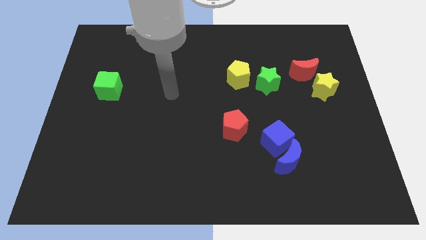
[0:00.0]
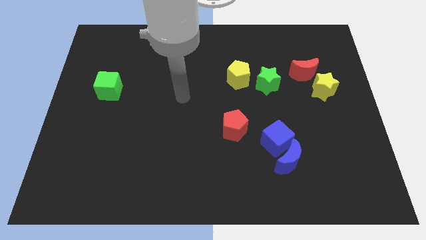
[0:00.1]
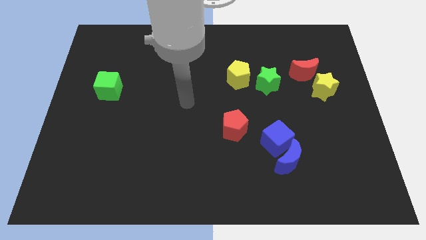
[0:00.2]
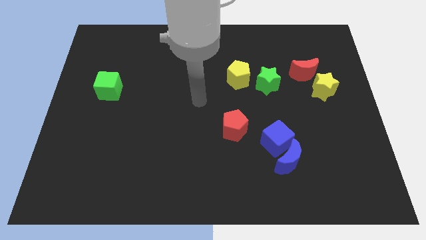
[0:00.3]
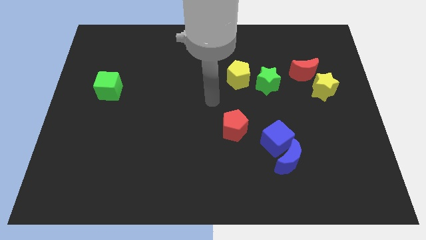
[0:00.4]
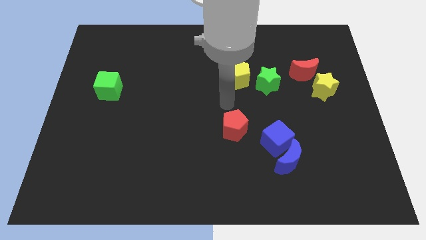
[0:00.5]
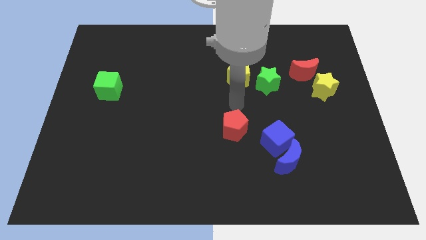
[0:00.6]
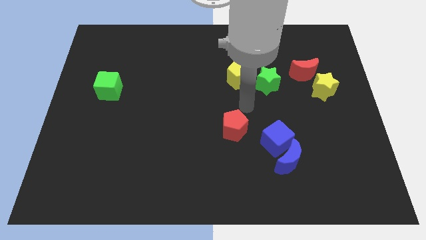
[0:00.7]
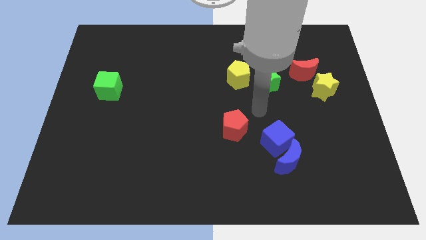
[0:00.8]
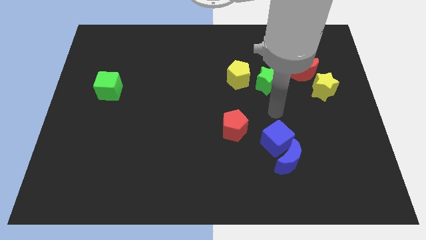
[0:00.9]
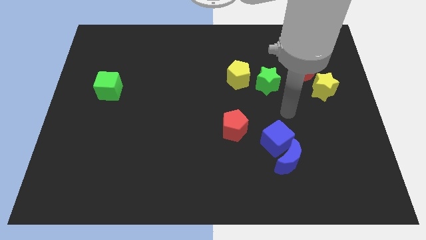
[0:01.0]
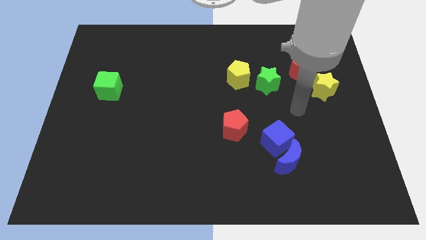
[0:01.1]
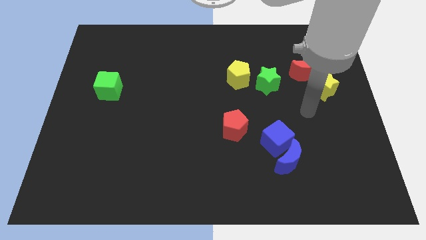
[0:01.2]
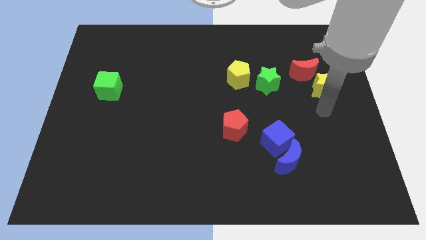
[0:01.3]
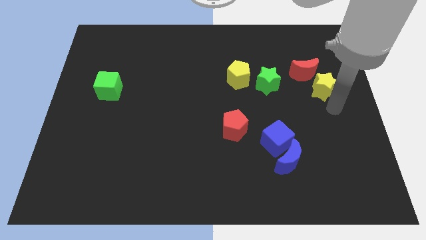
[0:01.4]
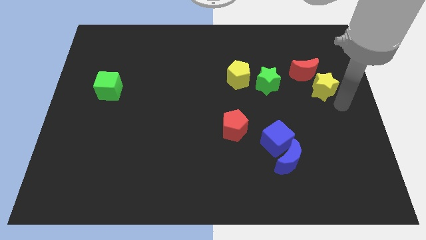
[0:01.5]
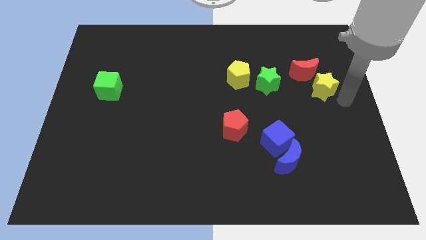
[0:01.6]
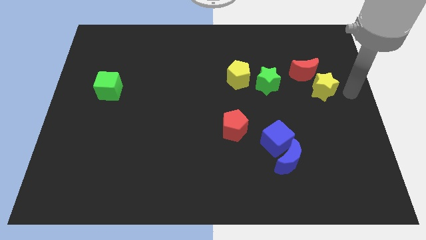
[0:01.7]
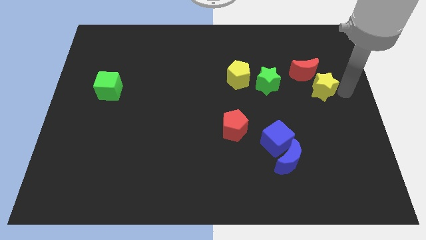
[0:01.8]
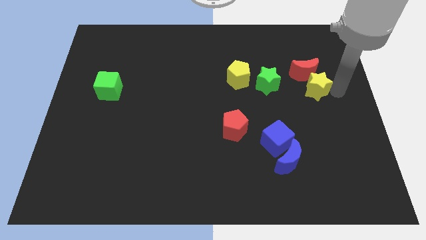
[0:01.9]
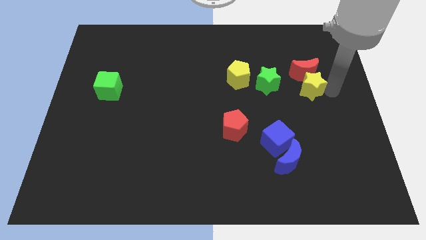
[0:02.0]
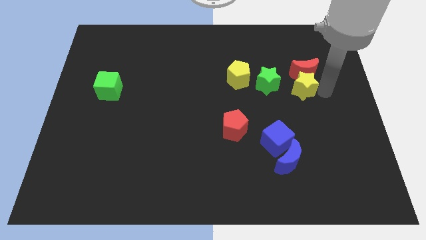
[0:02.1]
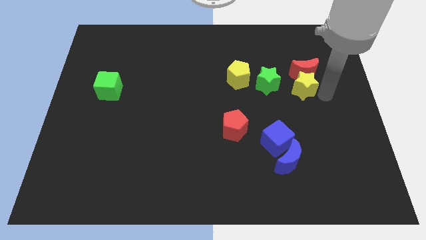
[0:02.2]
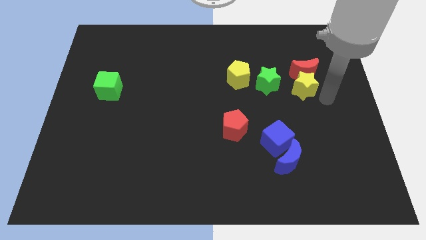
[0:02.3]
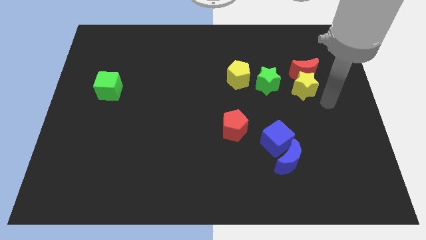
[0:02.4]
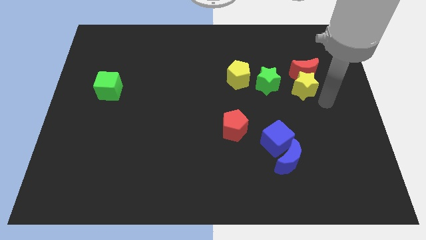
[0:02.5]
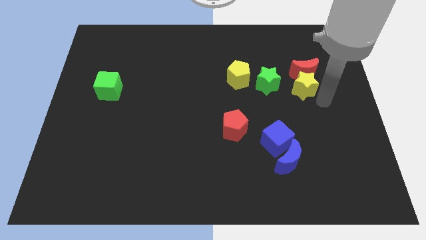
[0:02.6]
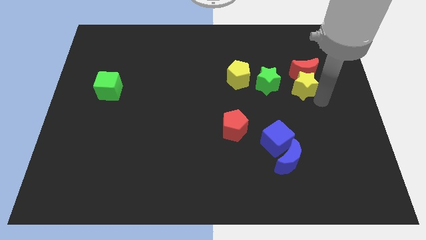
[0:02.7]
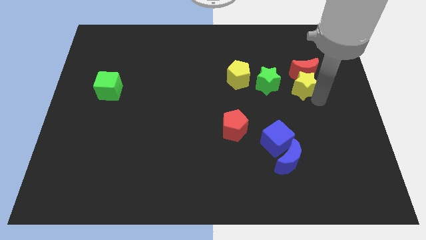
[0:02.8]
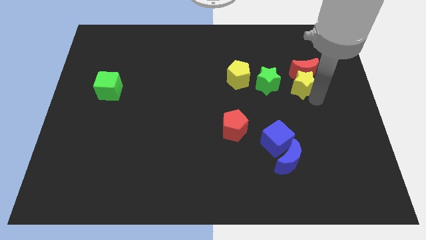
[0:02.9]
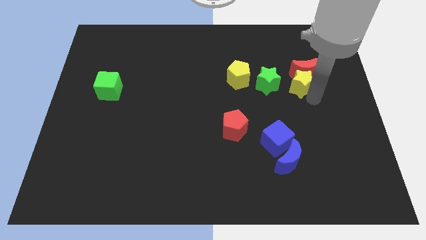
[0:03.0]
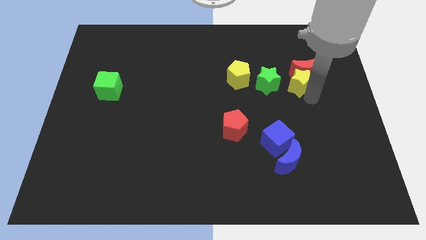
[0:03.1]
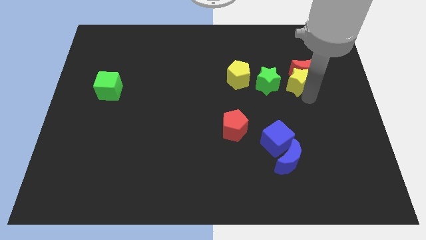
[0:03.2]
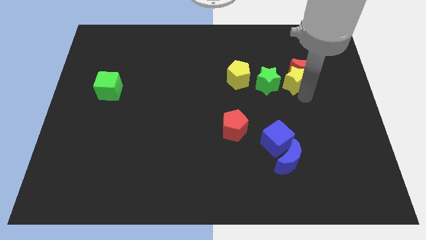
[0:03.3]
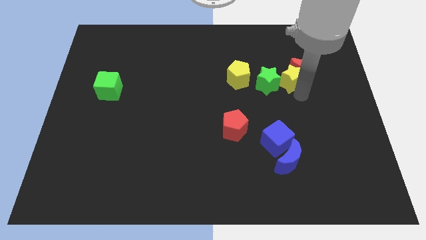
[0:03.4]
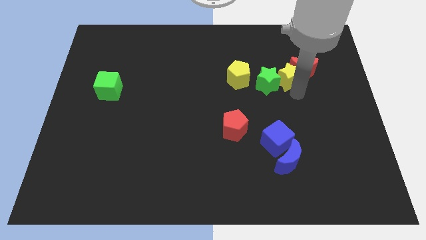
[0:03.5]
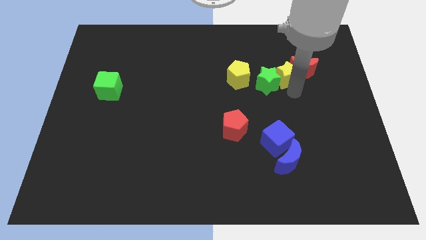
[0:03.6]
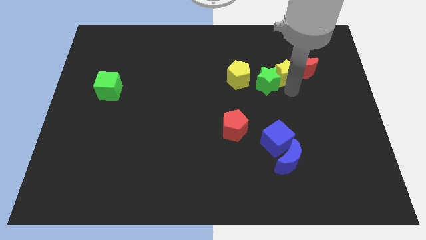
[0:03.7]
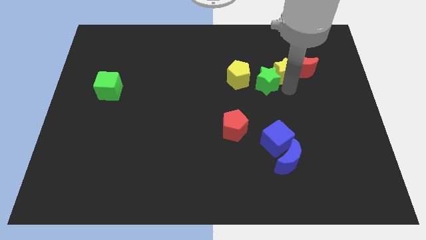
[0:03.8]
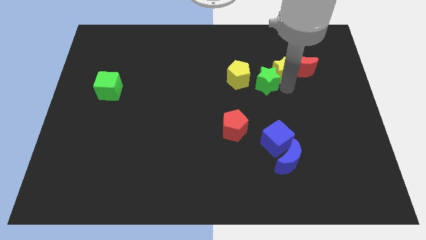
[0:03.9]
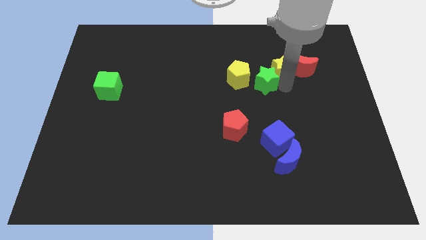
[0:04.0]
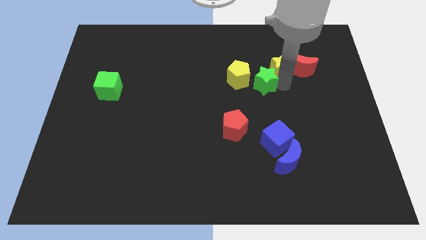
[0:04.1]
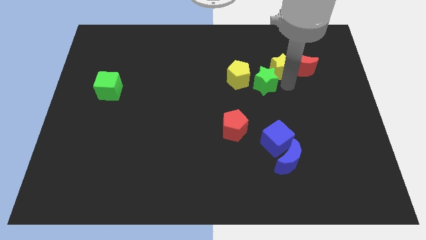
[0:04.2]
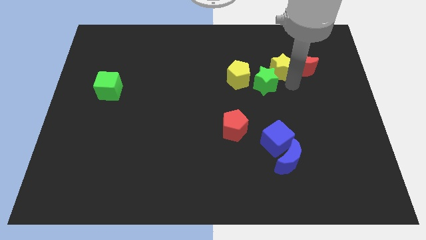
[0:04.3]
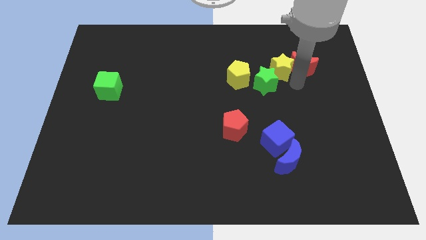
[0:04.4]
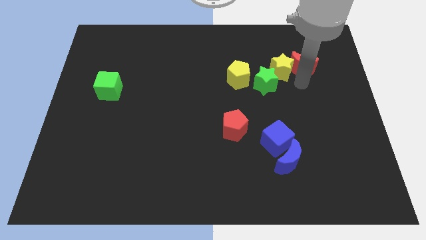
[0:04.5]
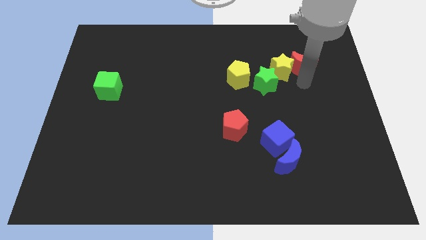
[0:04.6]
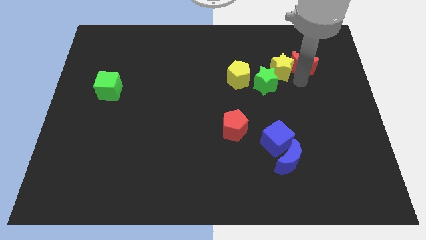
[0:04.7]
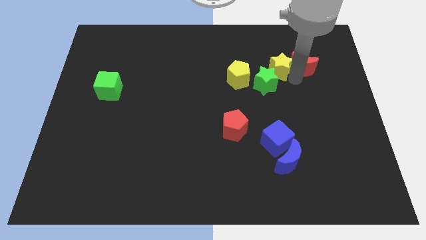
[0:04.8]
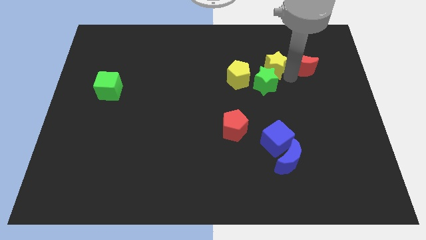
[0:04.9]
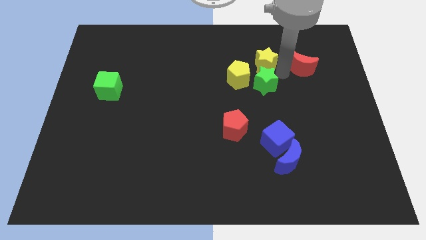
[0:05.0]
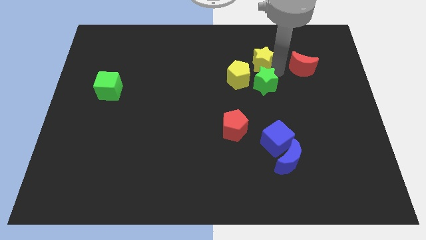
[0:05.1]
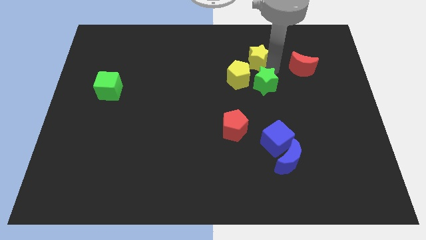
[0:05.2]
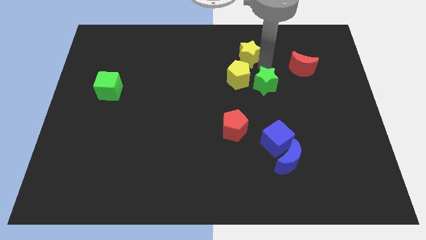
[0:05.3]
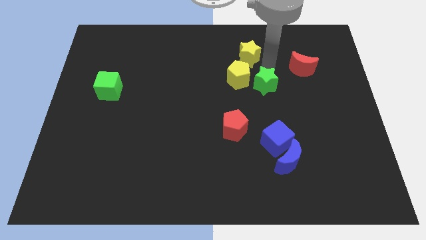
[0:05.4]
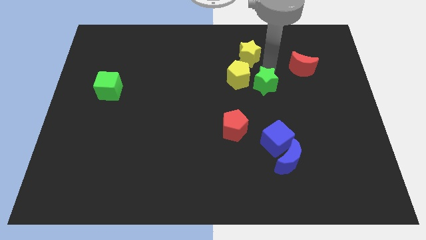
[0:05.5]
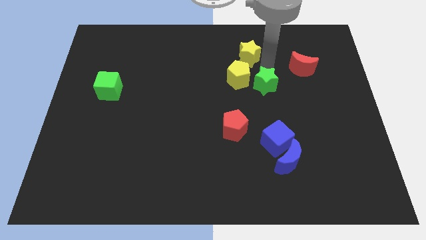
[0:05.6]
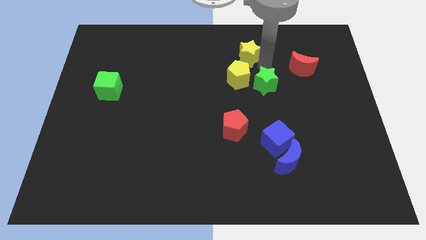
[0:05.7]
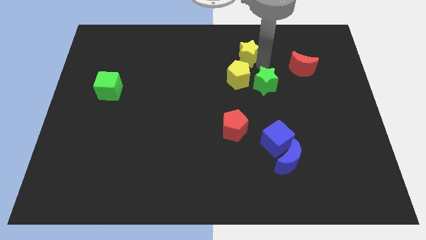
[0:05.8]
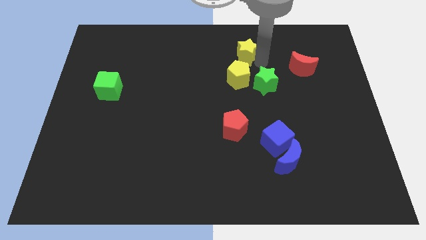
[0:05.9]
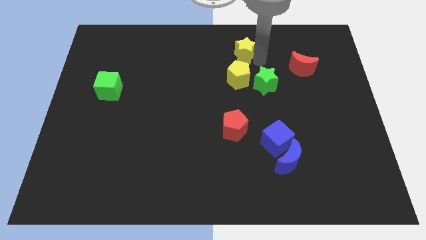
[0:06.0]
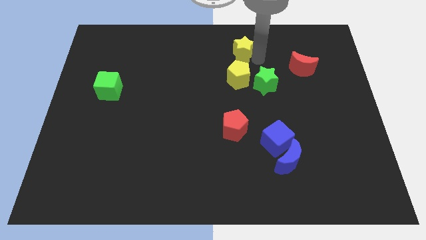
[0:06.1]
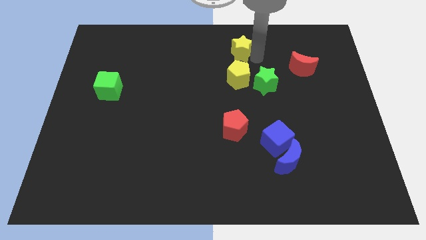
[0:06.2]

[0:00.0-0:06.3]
move the yellow star to the top

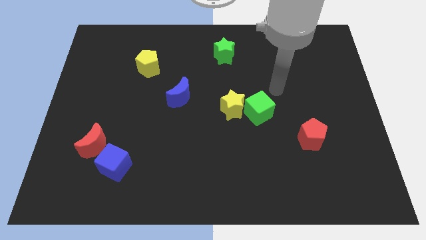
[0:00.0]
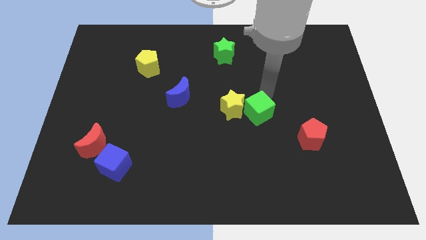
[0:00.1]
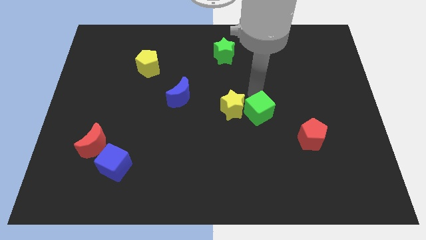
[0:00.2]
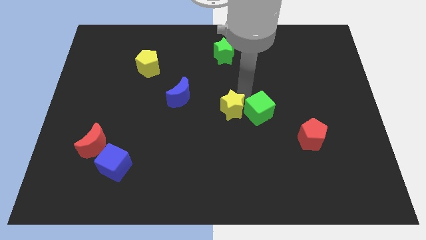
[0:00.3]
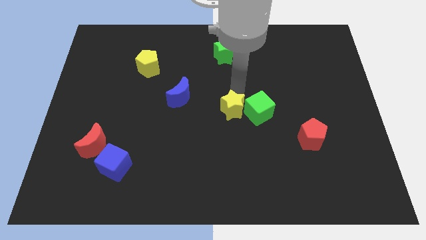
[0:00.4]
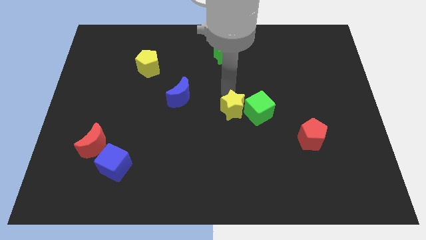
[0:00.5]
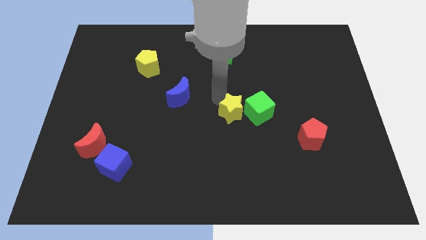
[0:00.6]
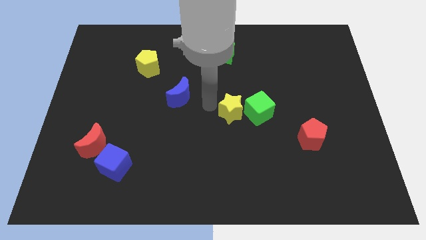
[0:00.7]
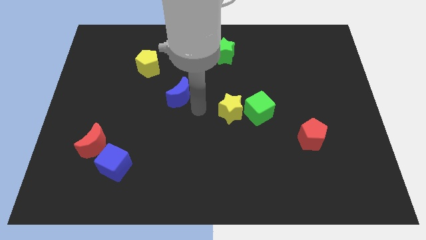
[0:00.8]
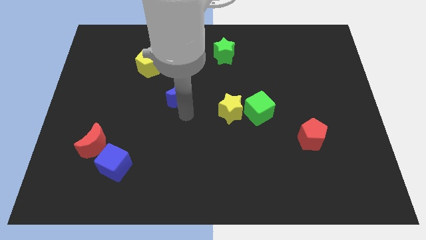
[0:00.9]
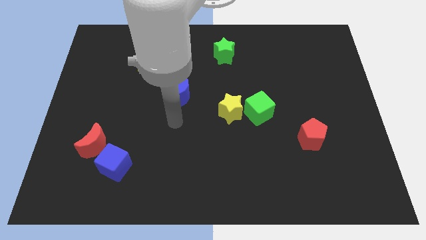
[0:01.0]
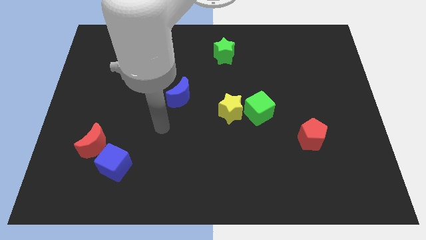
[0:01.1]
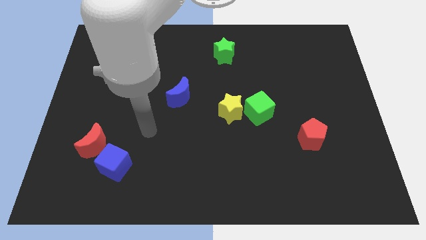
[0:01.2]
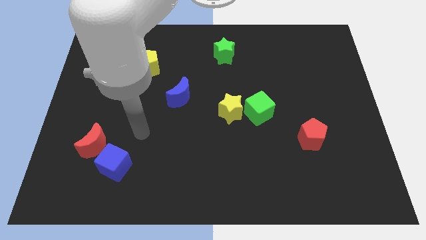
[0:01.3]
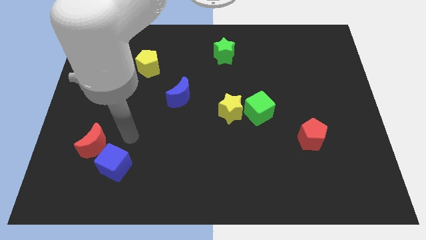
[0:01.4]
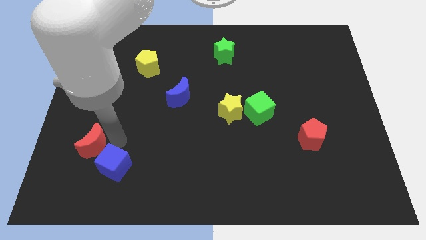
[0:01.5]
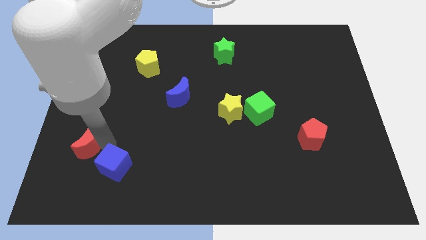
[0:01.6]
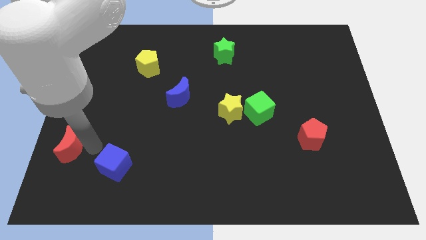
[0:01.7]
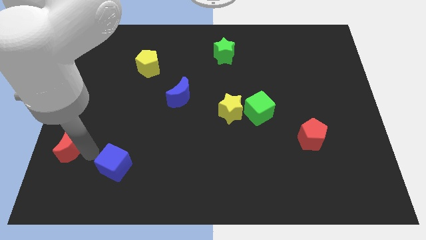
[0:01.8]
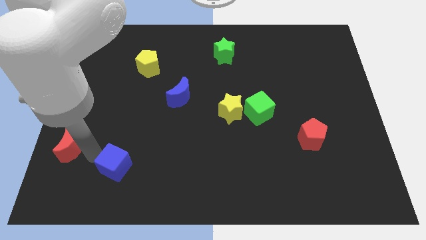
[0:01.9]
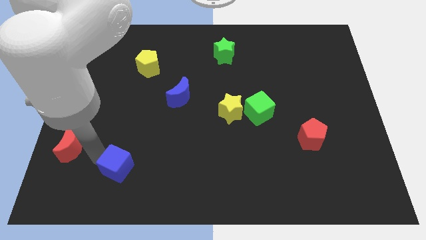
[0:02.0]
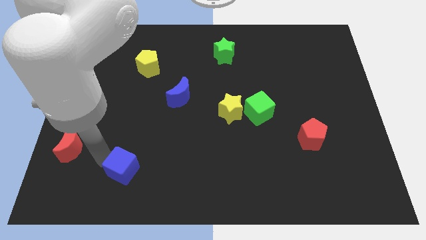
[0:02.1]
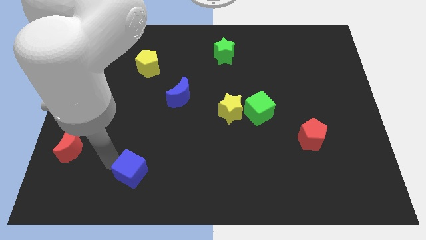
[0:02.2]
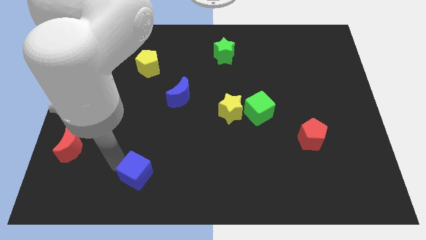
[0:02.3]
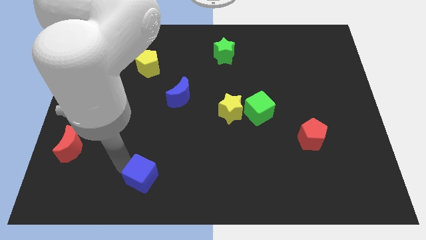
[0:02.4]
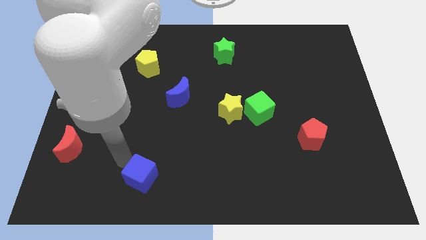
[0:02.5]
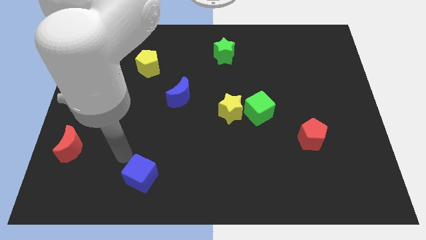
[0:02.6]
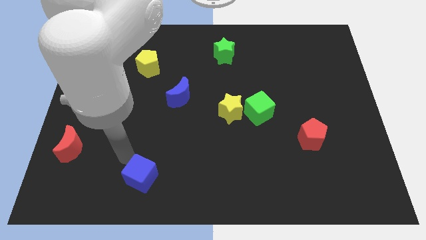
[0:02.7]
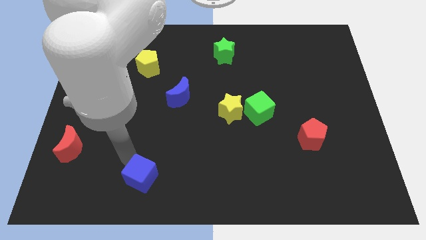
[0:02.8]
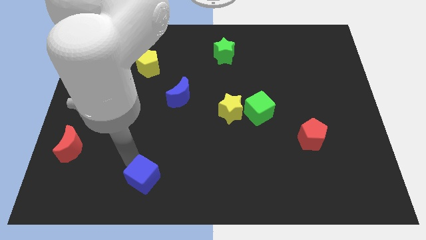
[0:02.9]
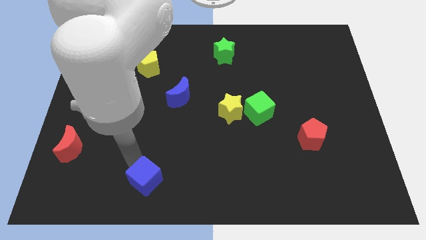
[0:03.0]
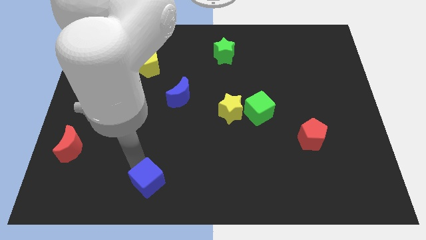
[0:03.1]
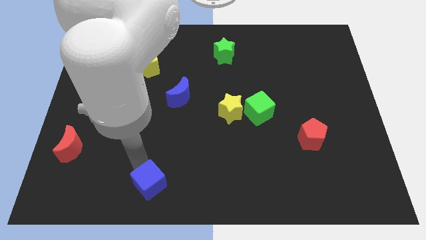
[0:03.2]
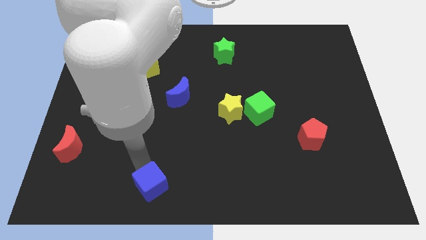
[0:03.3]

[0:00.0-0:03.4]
push the blue cube to the bottom
